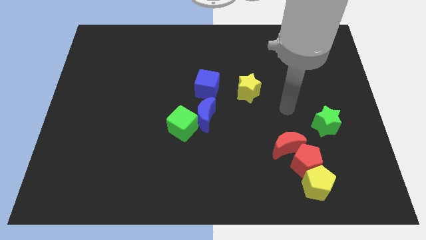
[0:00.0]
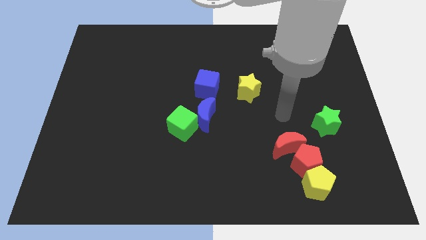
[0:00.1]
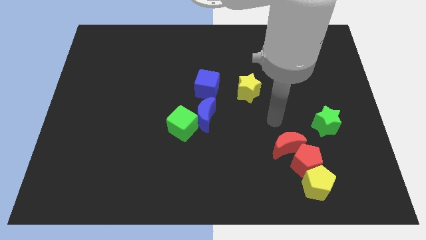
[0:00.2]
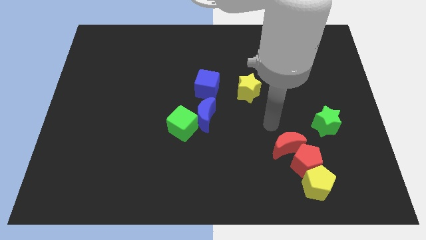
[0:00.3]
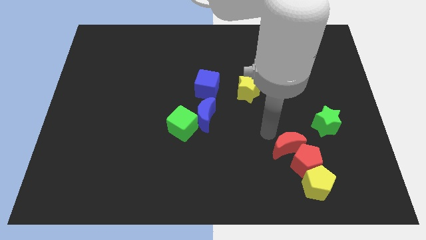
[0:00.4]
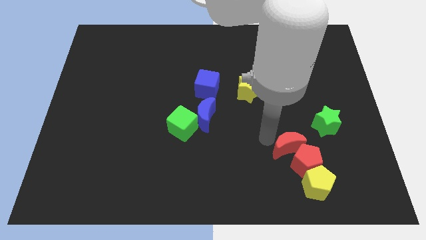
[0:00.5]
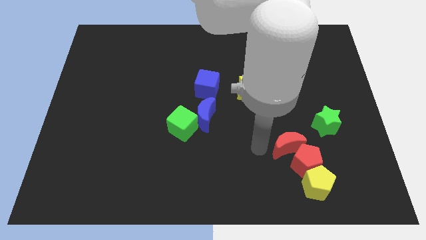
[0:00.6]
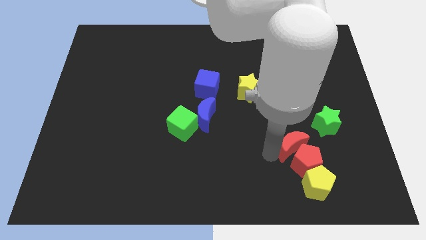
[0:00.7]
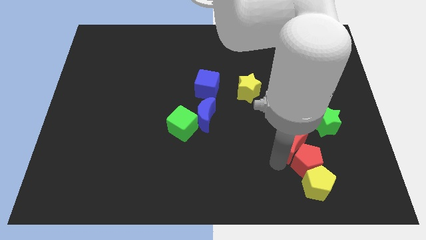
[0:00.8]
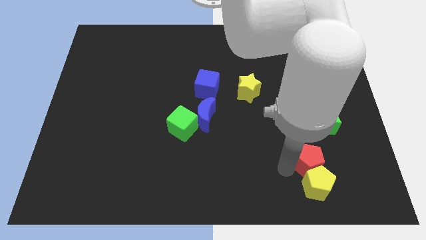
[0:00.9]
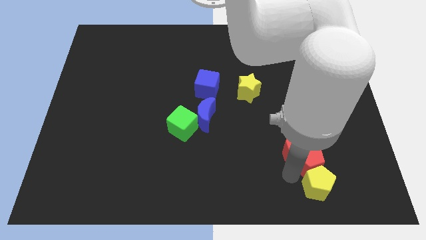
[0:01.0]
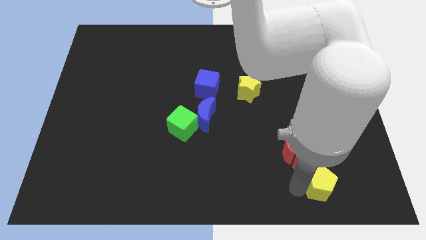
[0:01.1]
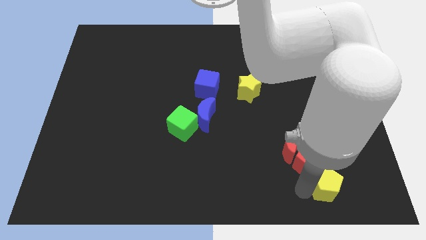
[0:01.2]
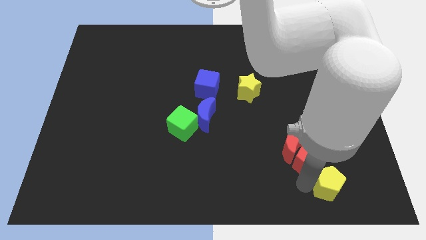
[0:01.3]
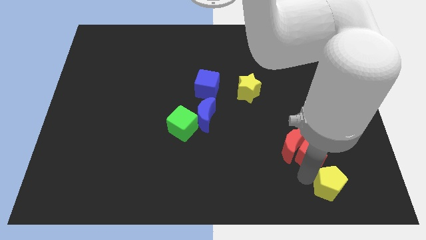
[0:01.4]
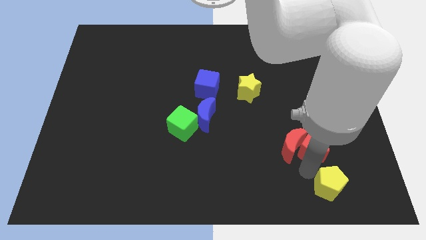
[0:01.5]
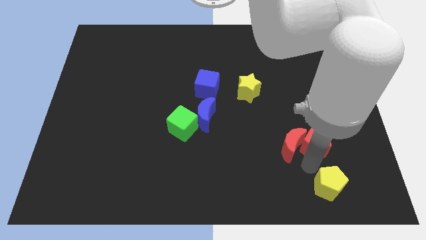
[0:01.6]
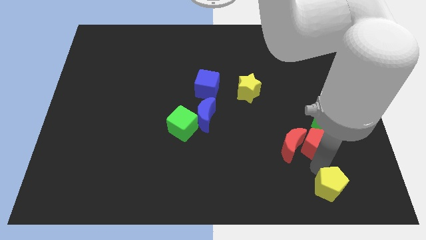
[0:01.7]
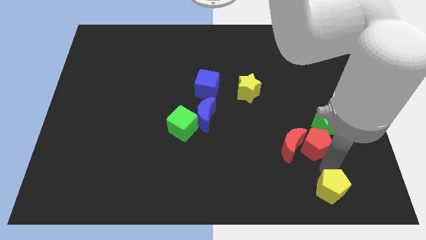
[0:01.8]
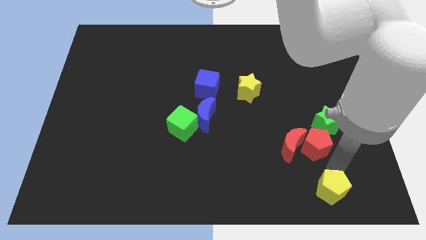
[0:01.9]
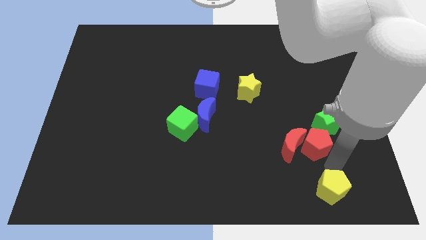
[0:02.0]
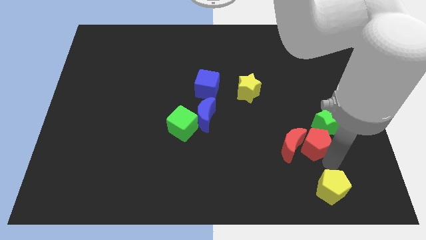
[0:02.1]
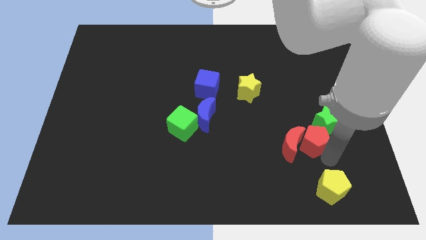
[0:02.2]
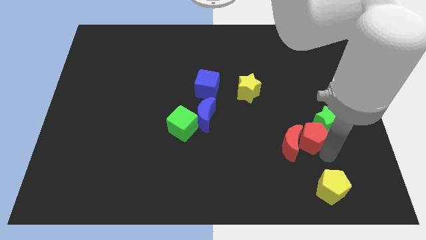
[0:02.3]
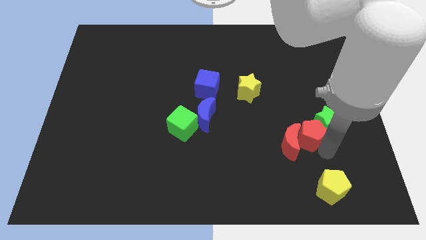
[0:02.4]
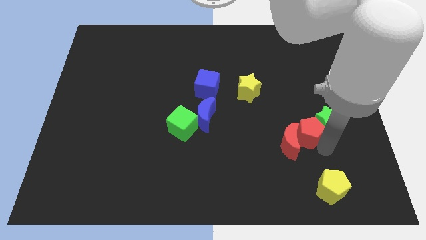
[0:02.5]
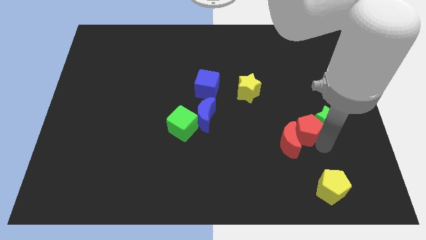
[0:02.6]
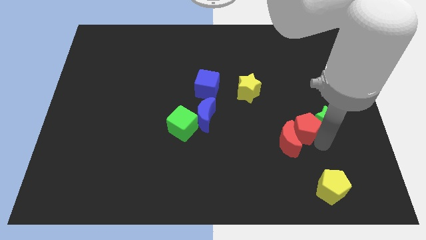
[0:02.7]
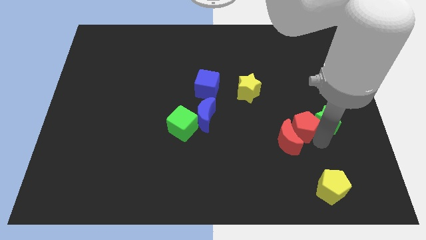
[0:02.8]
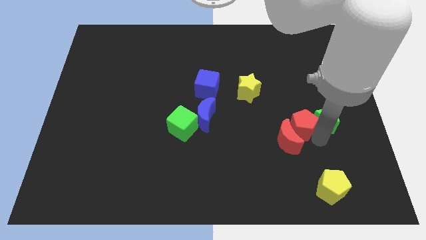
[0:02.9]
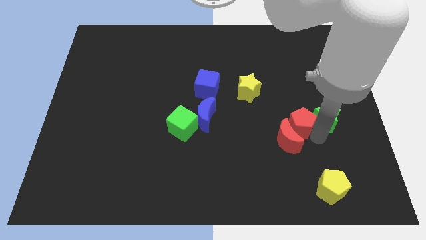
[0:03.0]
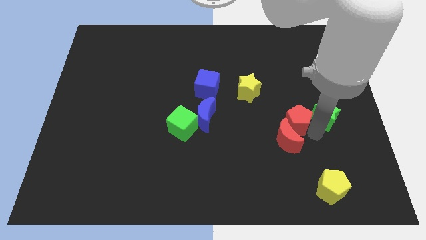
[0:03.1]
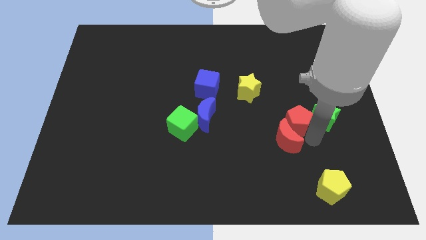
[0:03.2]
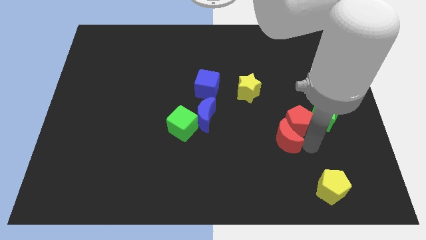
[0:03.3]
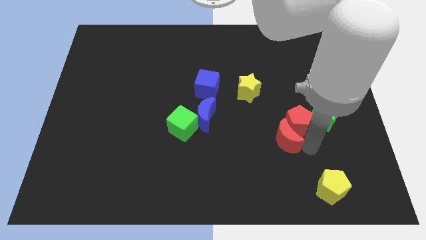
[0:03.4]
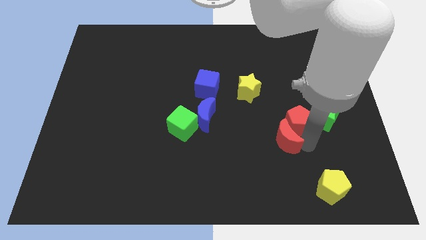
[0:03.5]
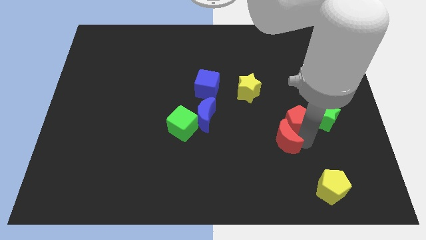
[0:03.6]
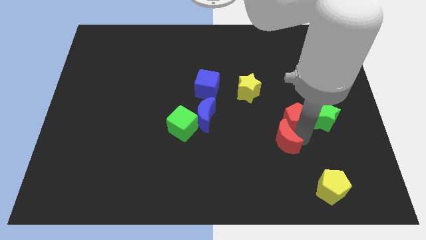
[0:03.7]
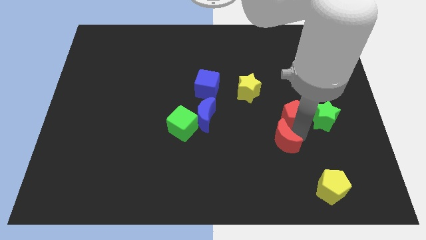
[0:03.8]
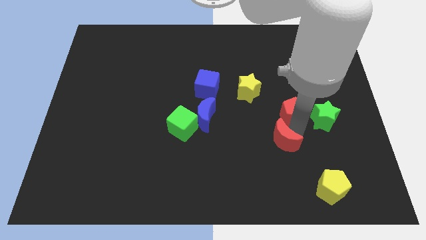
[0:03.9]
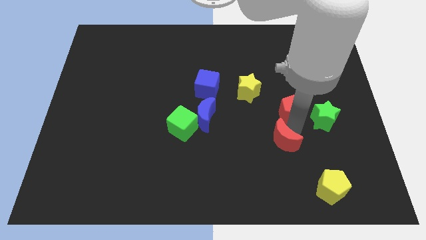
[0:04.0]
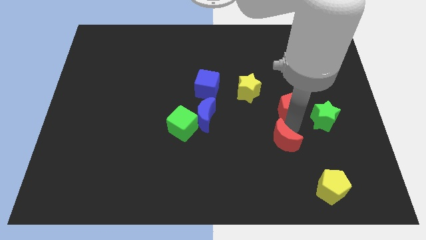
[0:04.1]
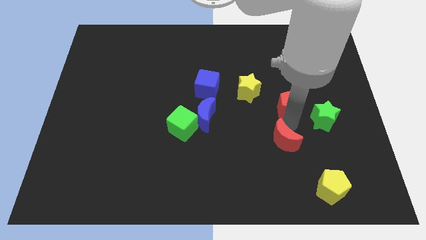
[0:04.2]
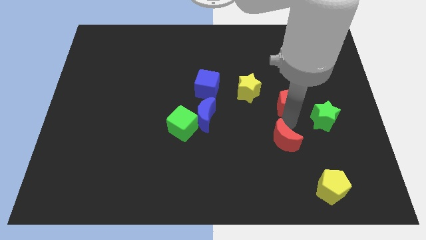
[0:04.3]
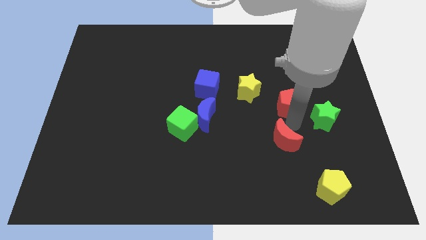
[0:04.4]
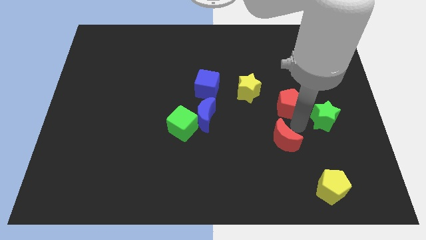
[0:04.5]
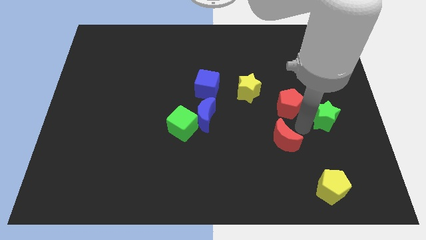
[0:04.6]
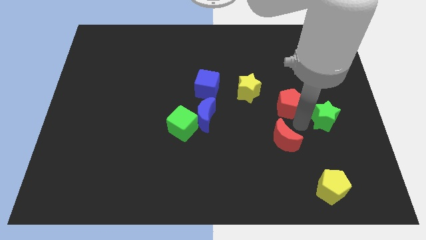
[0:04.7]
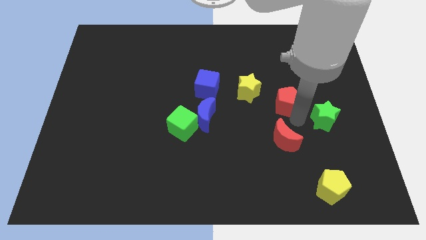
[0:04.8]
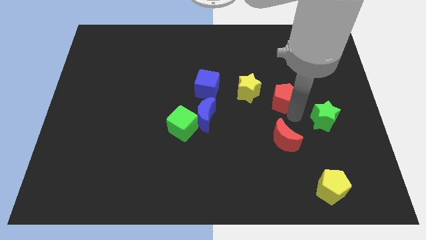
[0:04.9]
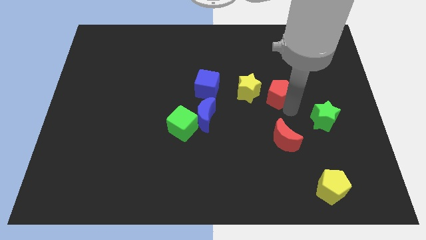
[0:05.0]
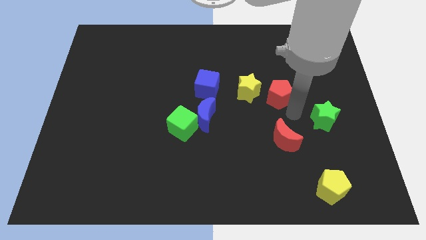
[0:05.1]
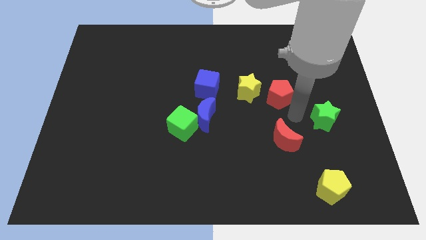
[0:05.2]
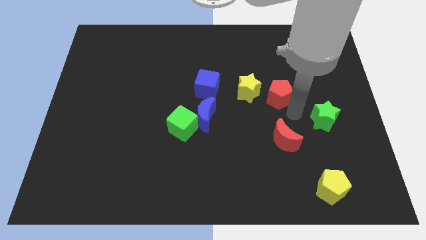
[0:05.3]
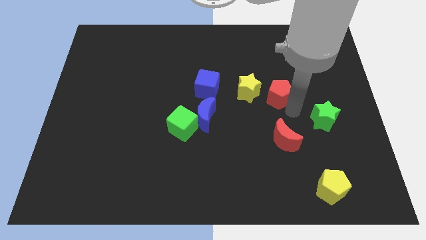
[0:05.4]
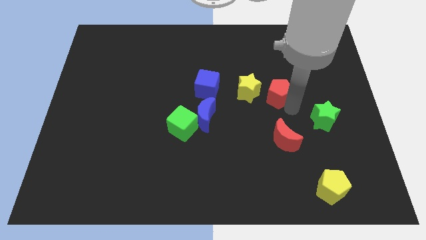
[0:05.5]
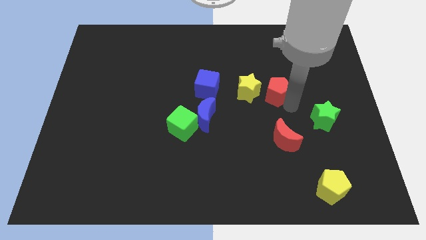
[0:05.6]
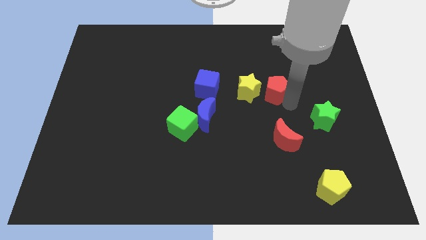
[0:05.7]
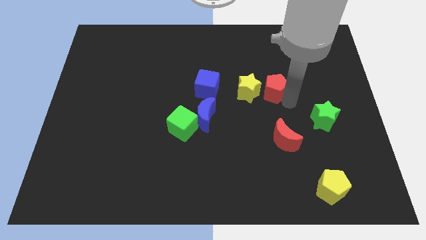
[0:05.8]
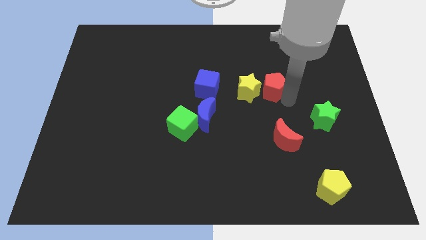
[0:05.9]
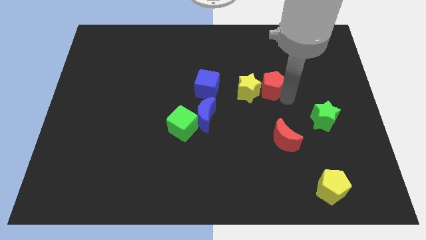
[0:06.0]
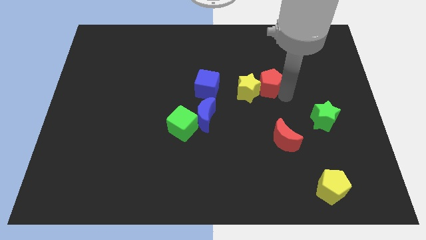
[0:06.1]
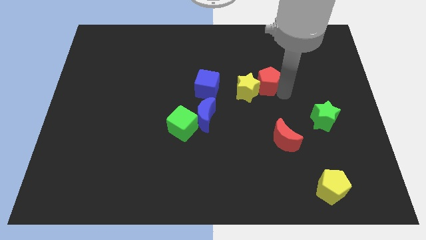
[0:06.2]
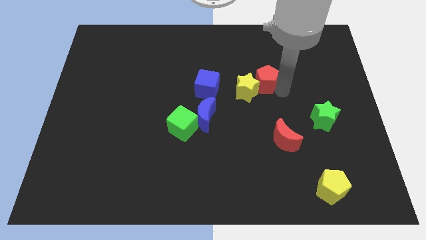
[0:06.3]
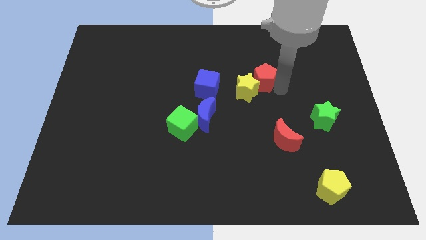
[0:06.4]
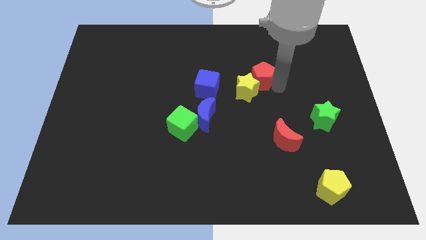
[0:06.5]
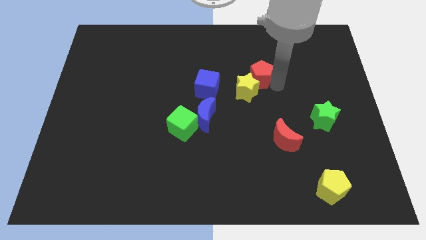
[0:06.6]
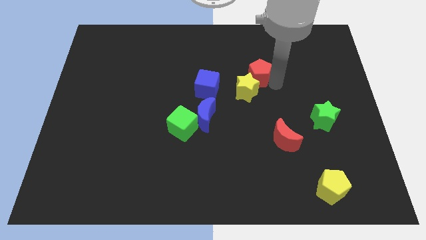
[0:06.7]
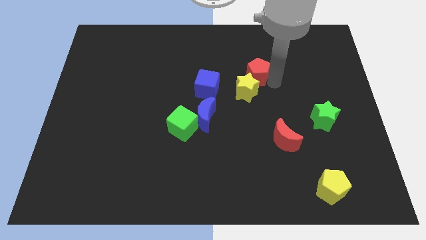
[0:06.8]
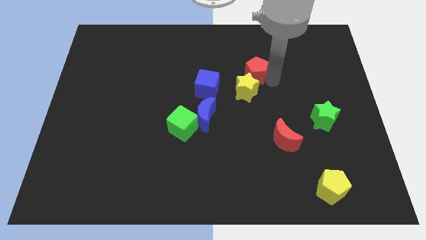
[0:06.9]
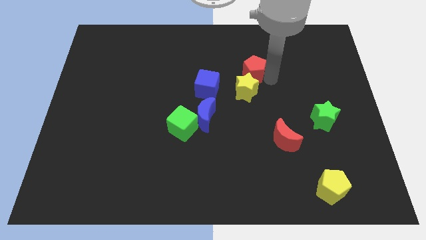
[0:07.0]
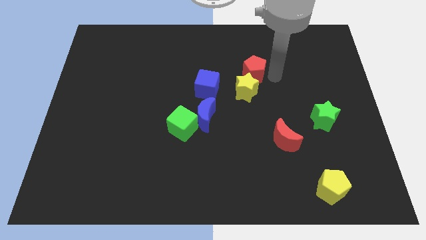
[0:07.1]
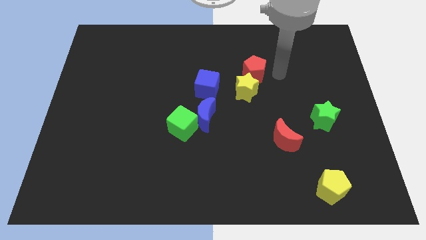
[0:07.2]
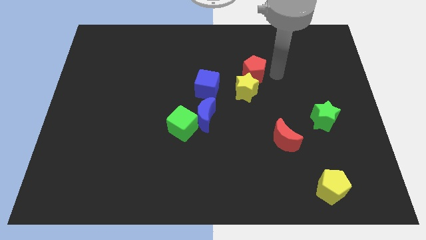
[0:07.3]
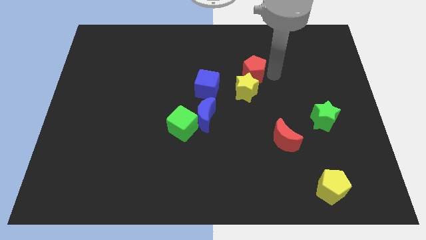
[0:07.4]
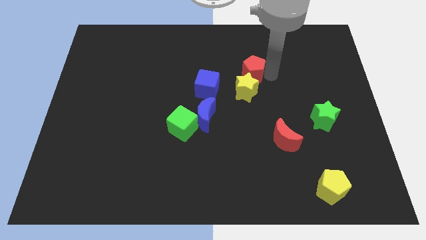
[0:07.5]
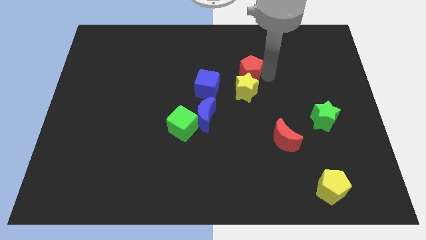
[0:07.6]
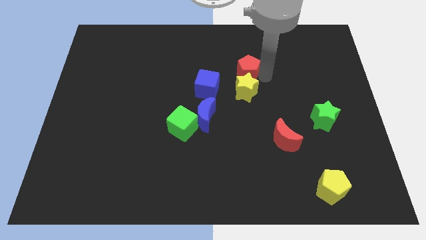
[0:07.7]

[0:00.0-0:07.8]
slide the red pentagon diagonally up and to the right of the blue cube
